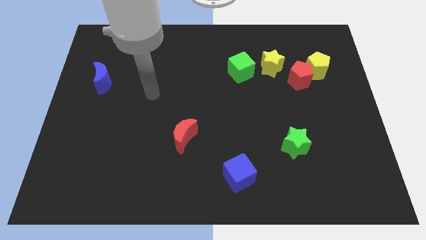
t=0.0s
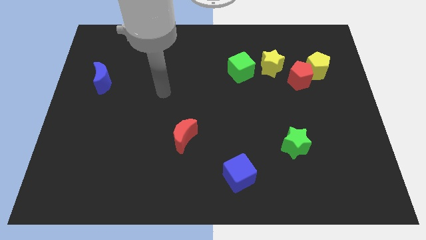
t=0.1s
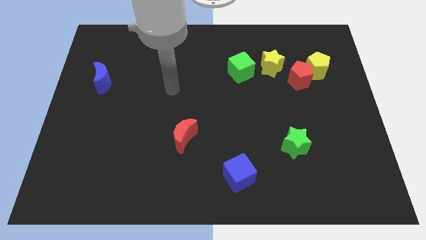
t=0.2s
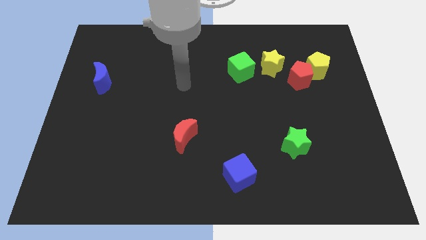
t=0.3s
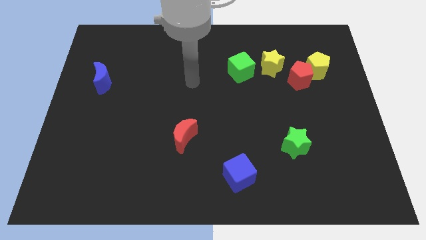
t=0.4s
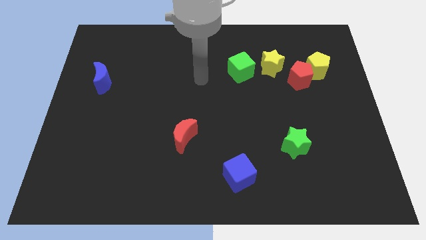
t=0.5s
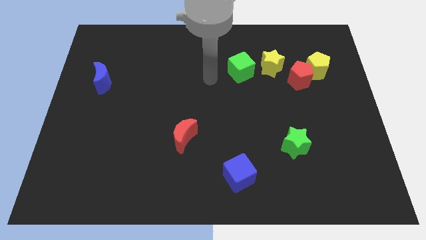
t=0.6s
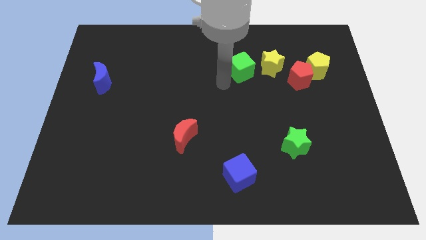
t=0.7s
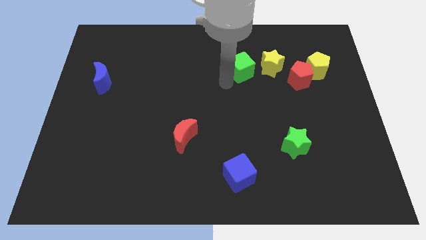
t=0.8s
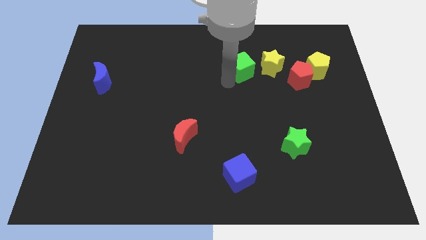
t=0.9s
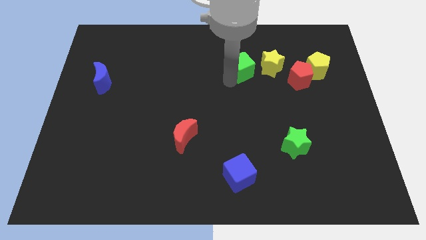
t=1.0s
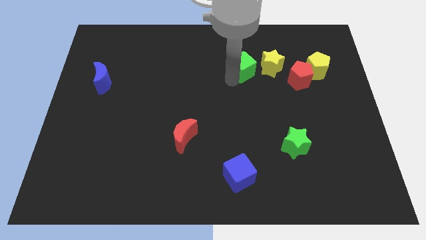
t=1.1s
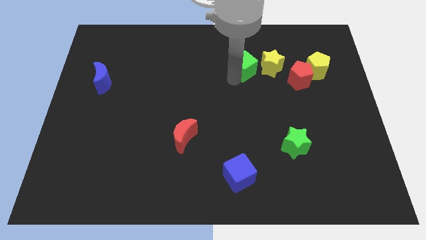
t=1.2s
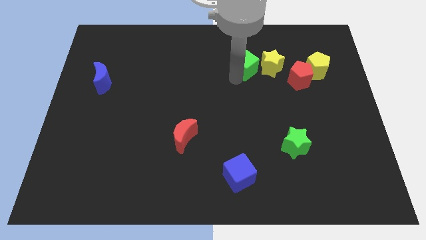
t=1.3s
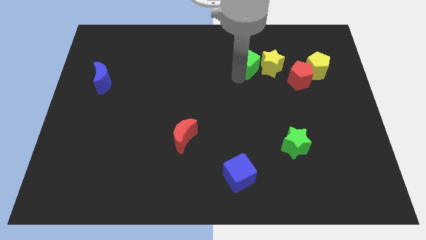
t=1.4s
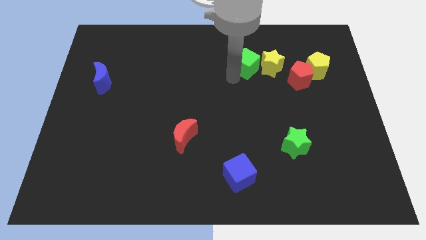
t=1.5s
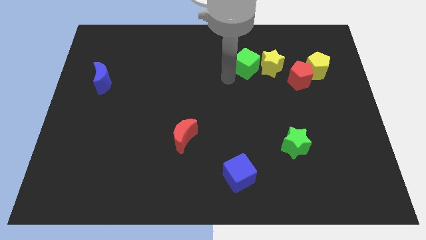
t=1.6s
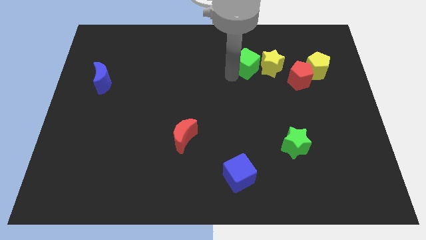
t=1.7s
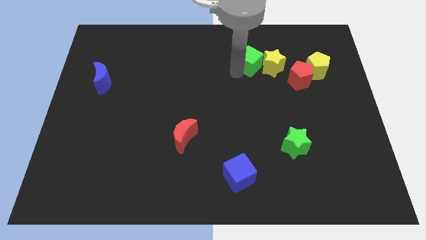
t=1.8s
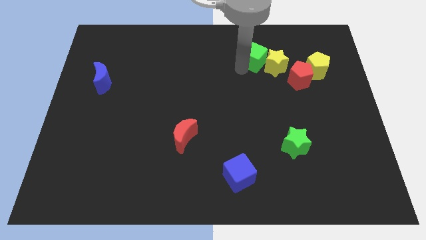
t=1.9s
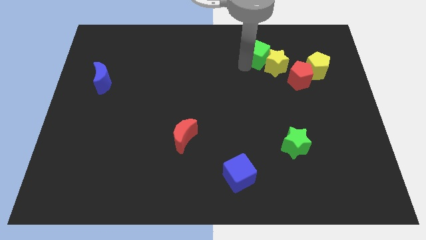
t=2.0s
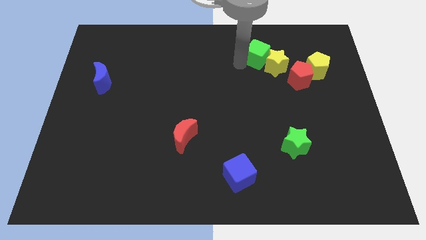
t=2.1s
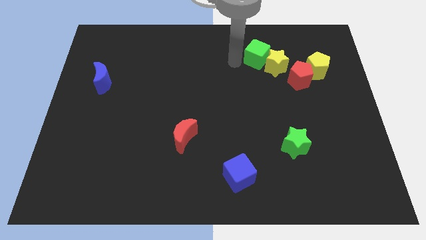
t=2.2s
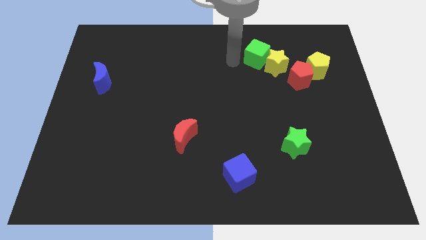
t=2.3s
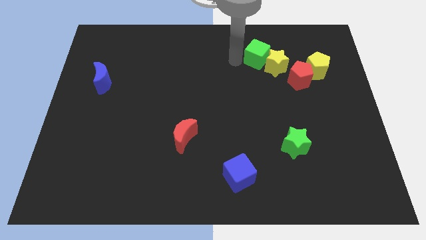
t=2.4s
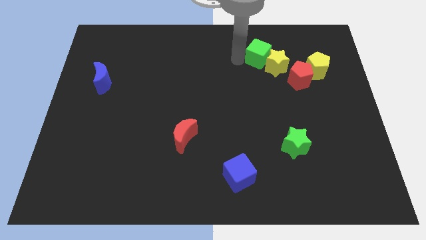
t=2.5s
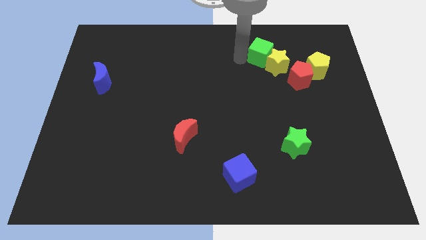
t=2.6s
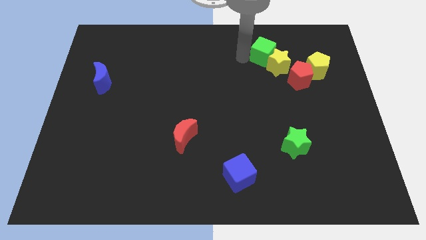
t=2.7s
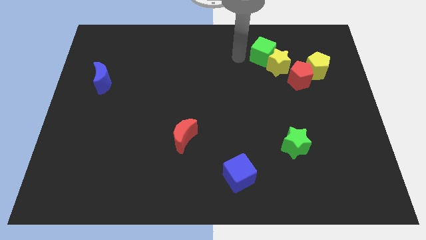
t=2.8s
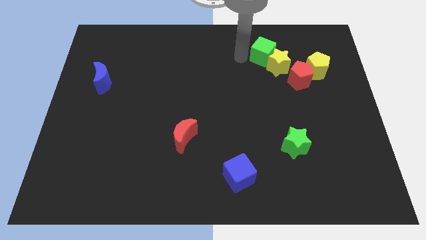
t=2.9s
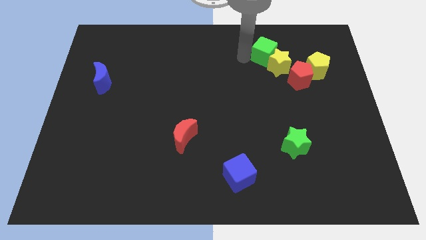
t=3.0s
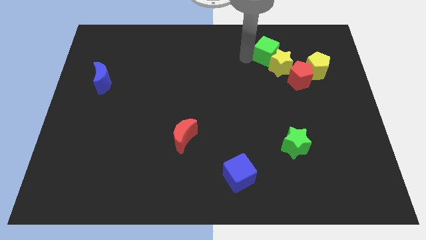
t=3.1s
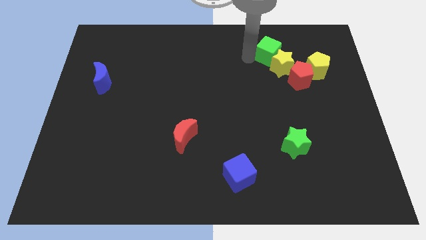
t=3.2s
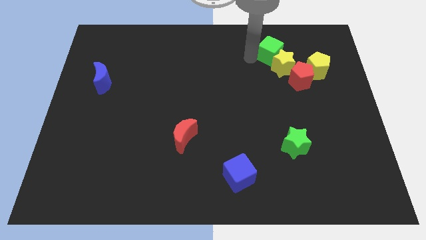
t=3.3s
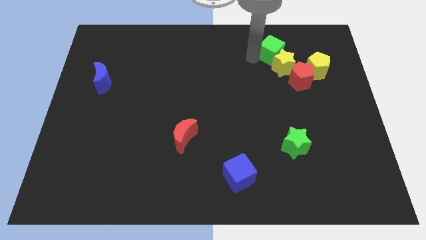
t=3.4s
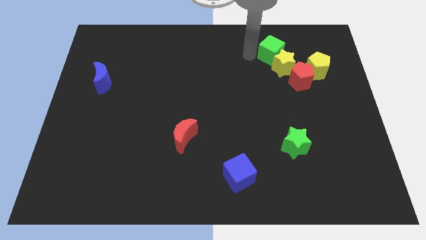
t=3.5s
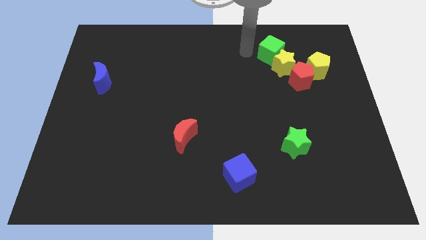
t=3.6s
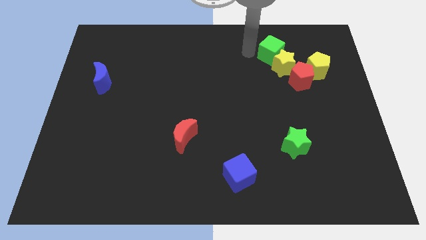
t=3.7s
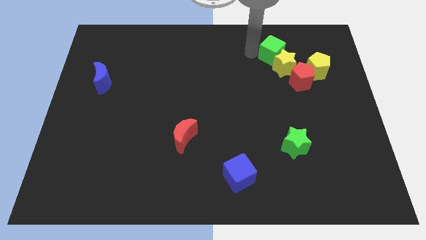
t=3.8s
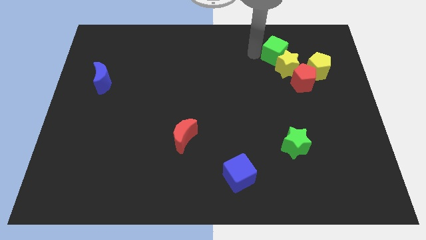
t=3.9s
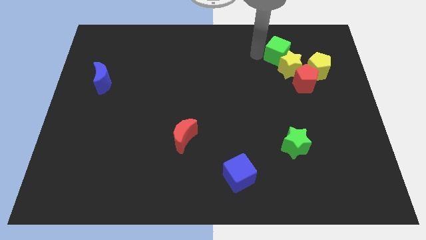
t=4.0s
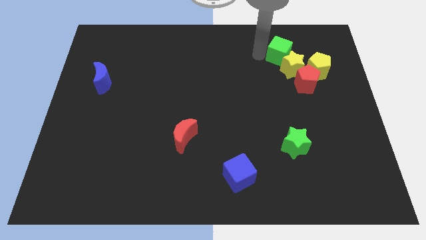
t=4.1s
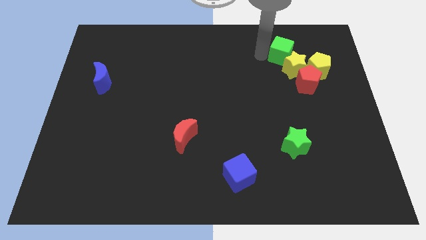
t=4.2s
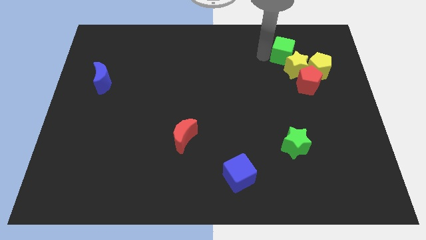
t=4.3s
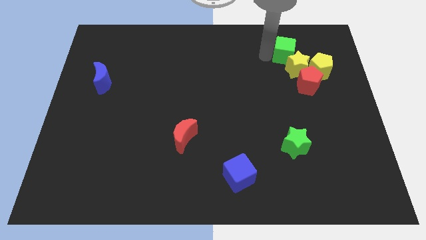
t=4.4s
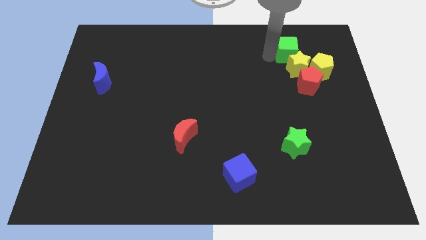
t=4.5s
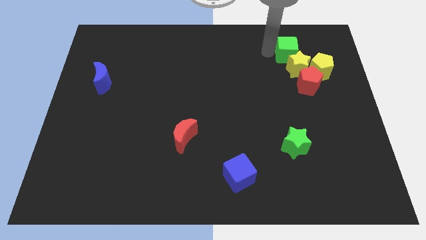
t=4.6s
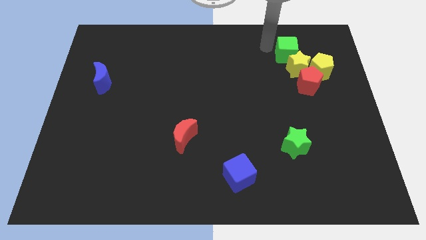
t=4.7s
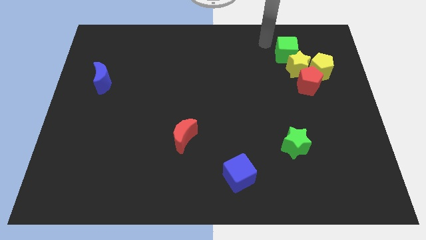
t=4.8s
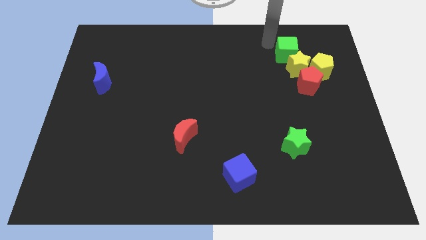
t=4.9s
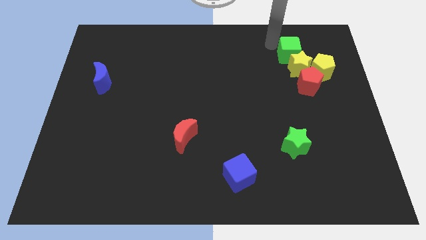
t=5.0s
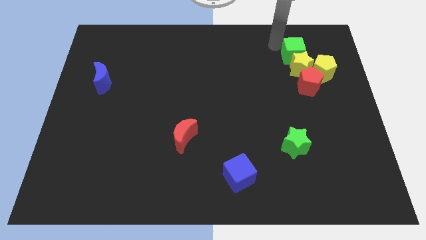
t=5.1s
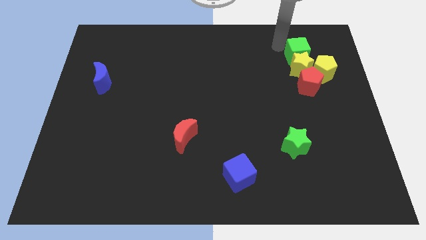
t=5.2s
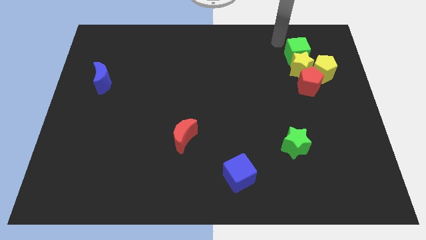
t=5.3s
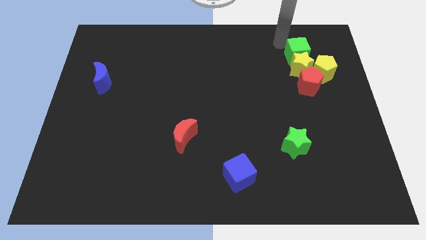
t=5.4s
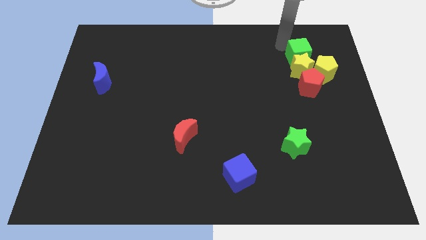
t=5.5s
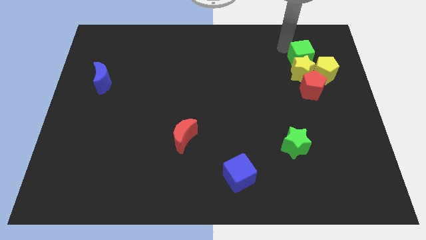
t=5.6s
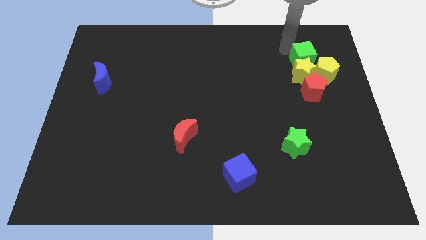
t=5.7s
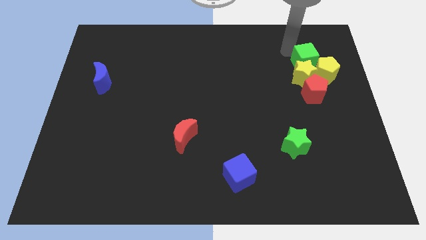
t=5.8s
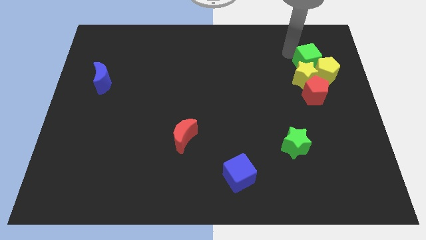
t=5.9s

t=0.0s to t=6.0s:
put the green cube to the yellow pentagon
